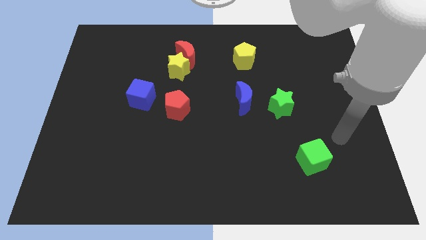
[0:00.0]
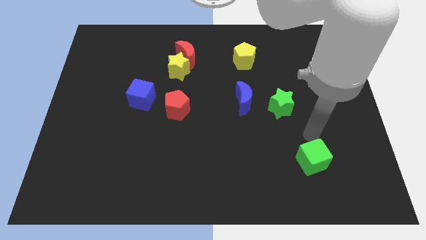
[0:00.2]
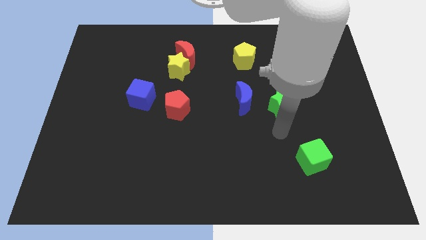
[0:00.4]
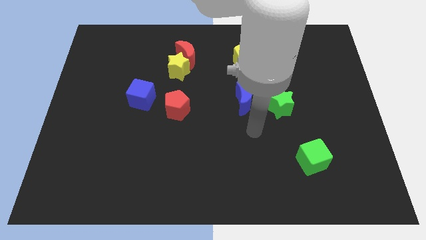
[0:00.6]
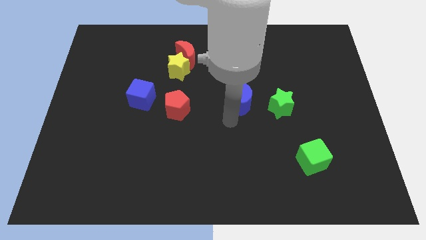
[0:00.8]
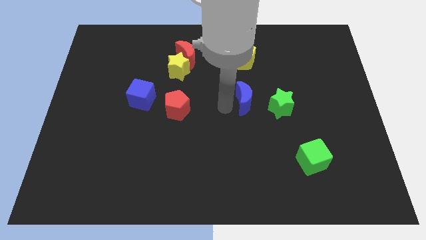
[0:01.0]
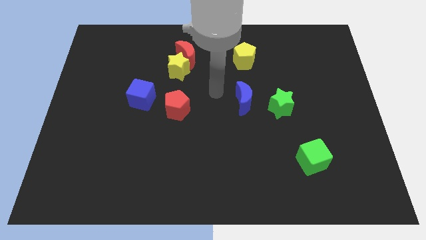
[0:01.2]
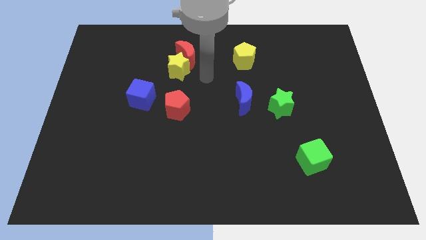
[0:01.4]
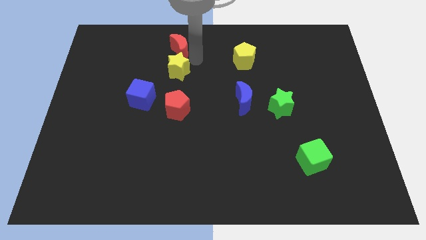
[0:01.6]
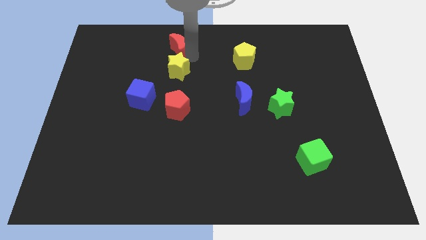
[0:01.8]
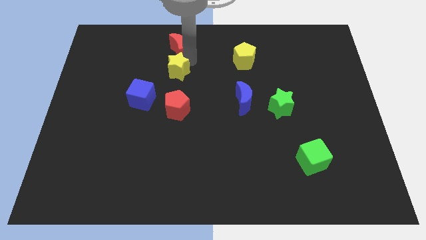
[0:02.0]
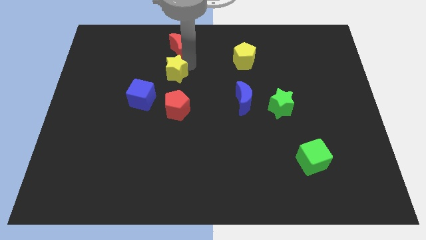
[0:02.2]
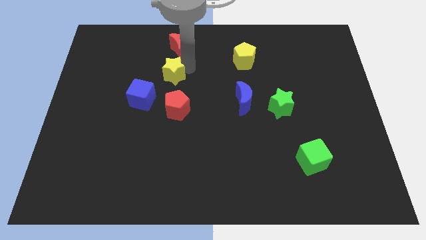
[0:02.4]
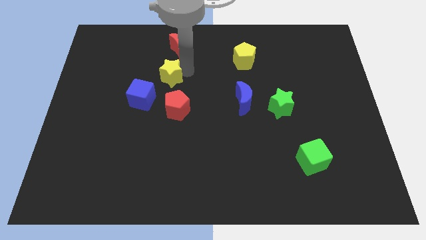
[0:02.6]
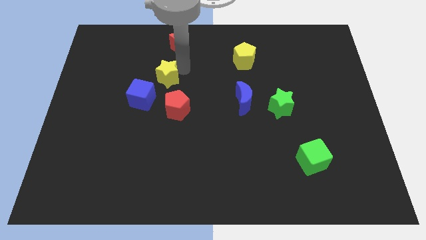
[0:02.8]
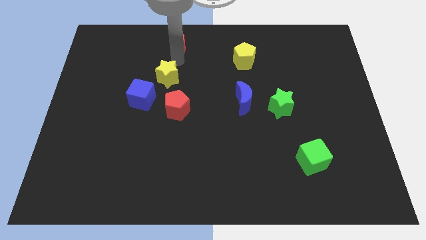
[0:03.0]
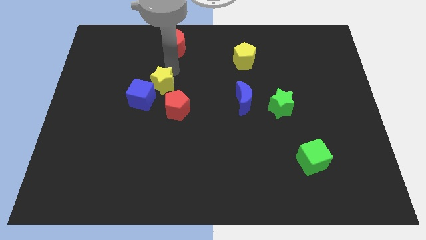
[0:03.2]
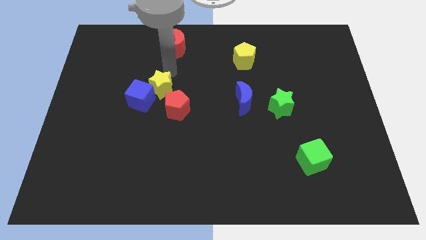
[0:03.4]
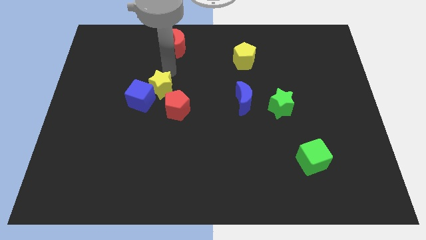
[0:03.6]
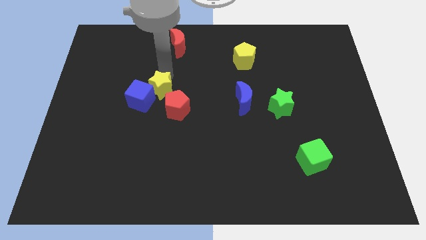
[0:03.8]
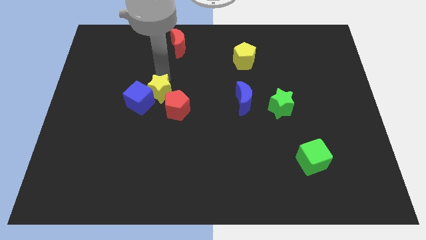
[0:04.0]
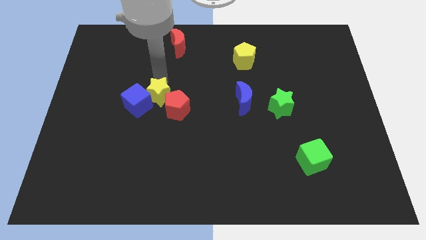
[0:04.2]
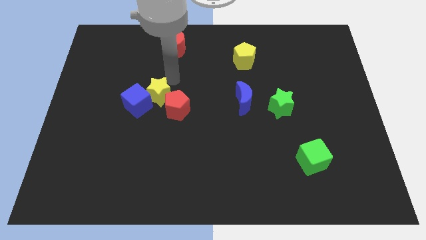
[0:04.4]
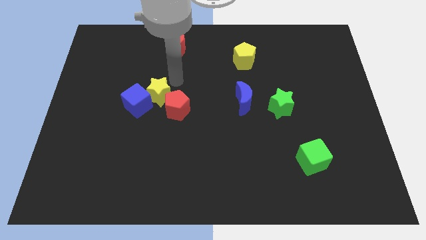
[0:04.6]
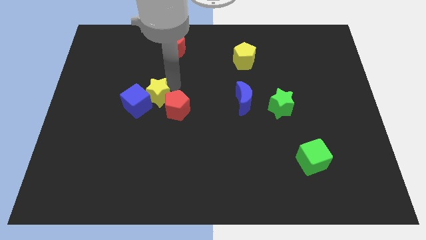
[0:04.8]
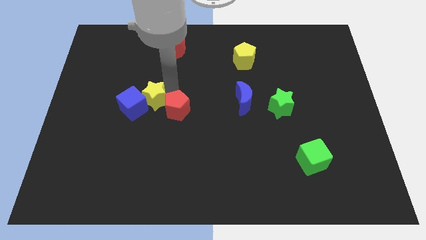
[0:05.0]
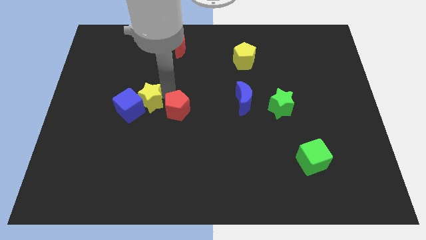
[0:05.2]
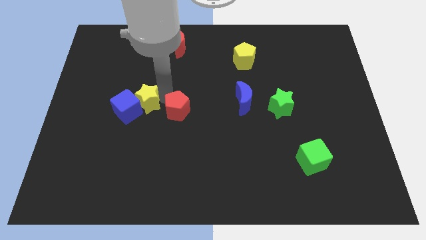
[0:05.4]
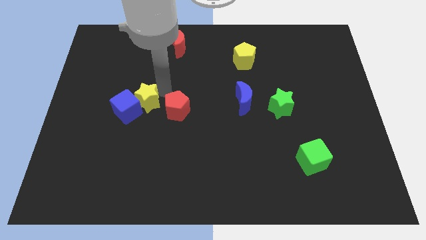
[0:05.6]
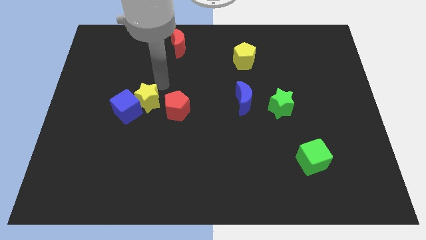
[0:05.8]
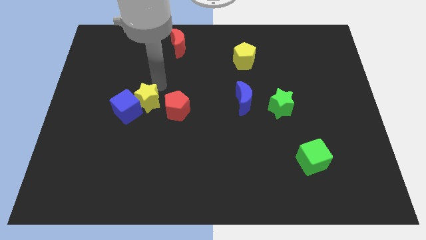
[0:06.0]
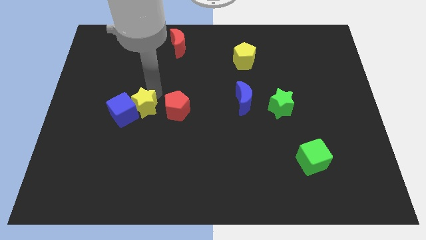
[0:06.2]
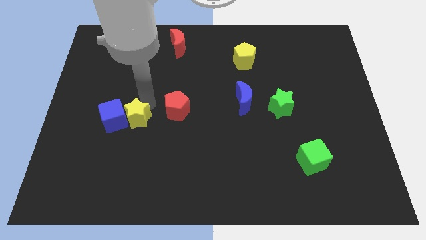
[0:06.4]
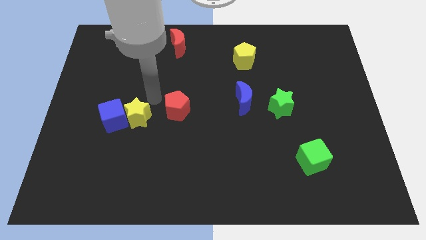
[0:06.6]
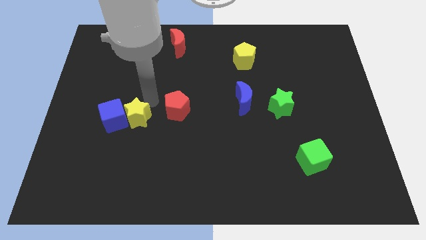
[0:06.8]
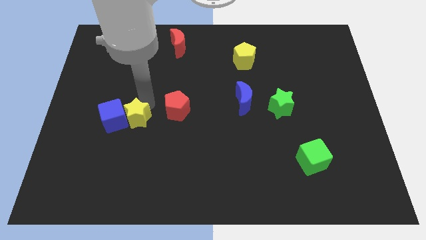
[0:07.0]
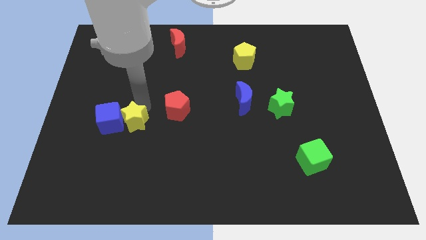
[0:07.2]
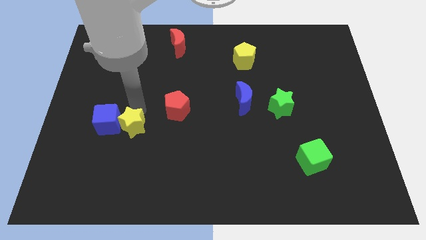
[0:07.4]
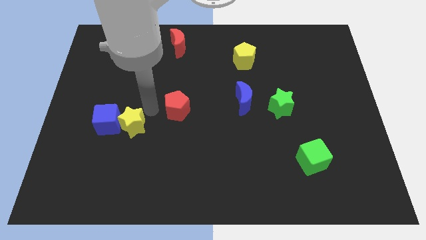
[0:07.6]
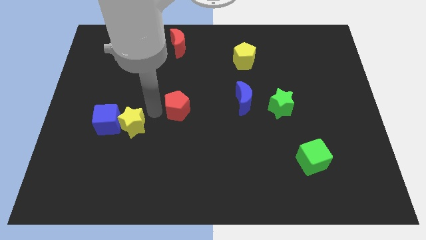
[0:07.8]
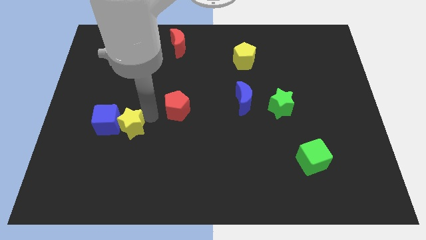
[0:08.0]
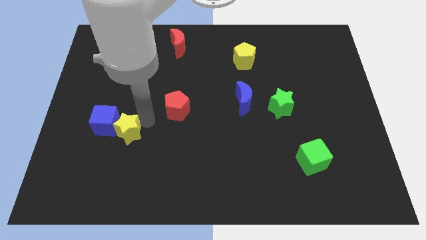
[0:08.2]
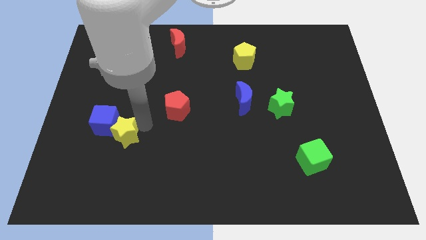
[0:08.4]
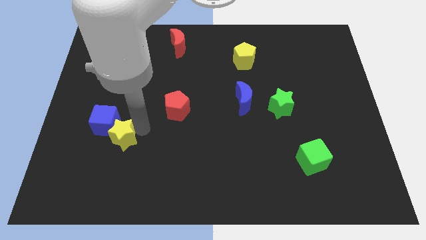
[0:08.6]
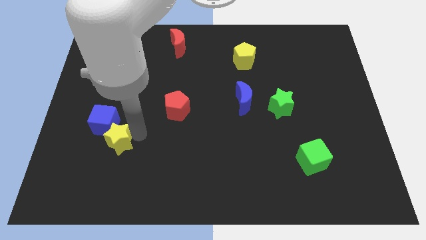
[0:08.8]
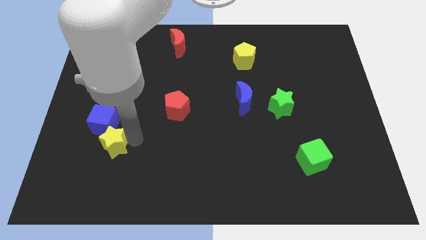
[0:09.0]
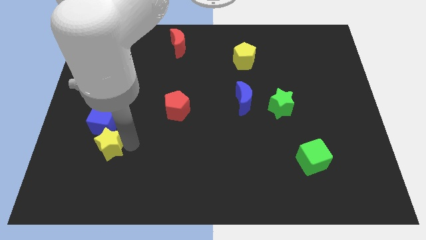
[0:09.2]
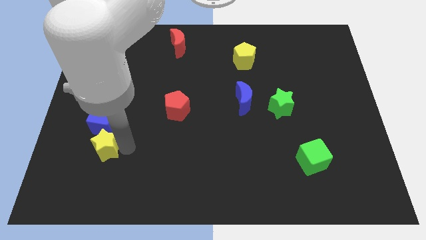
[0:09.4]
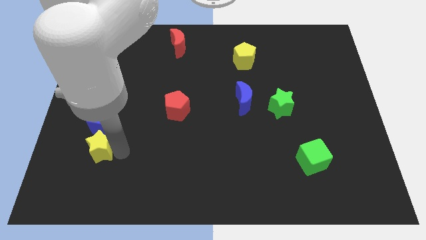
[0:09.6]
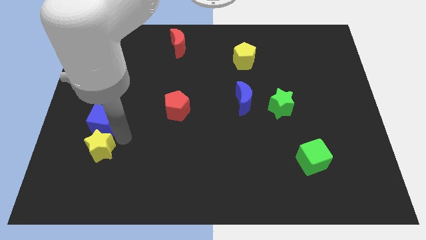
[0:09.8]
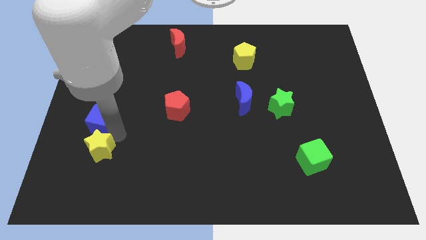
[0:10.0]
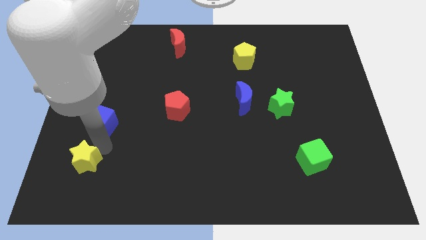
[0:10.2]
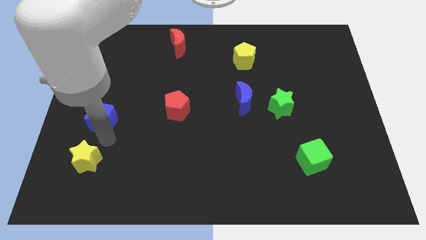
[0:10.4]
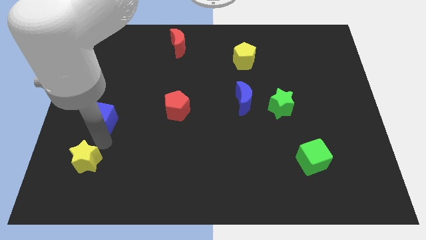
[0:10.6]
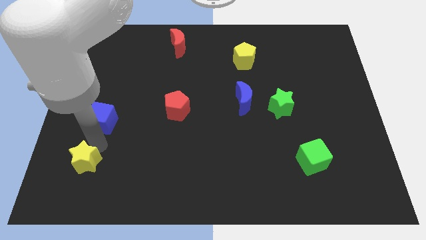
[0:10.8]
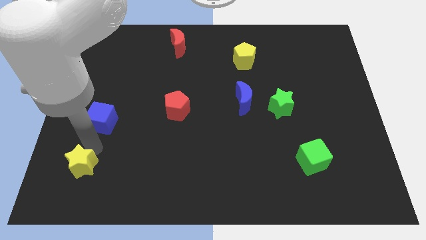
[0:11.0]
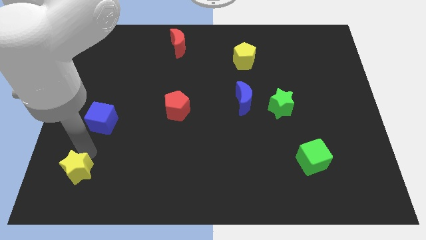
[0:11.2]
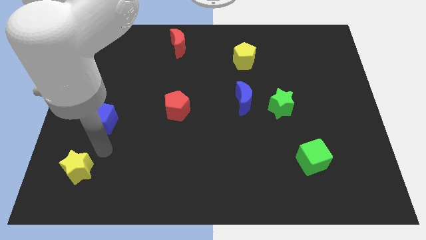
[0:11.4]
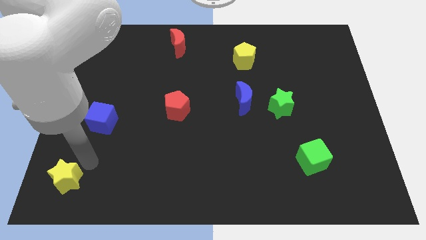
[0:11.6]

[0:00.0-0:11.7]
push the yellow star to the bottom left of the board

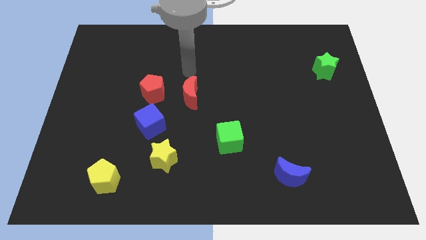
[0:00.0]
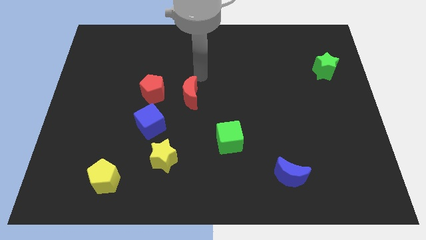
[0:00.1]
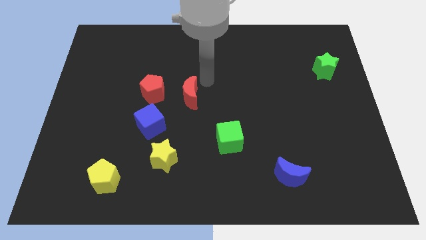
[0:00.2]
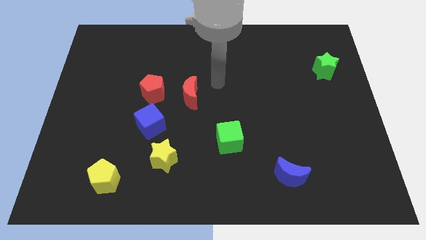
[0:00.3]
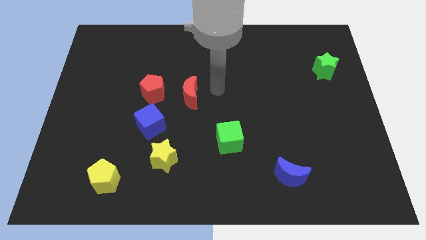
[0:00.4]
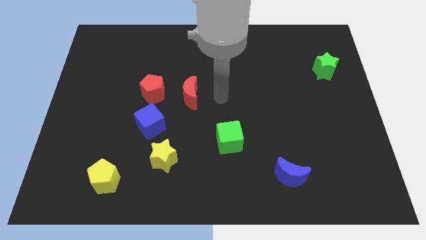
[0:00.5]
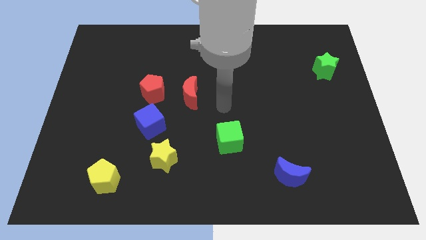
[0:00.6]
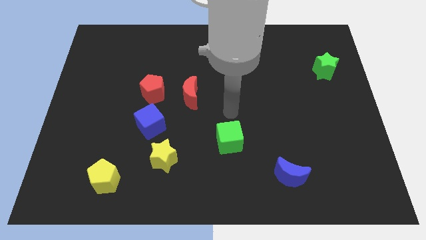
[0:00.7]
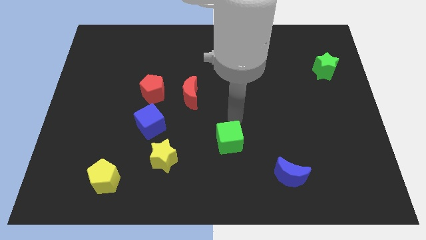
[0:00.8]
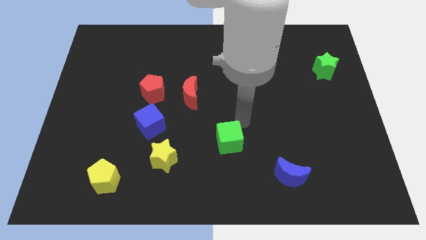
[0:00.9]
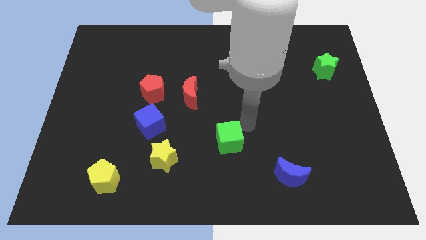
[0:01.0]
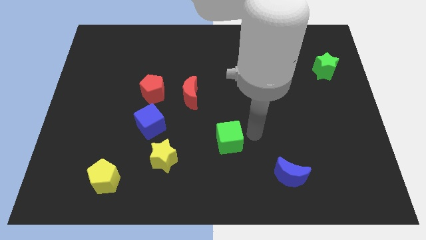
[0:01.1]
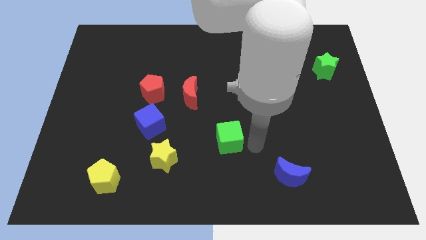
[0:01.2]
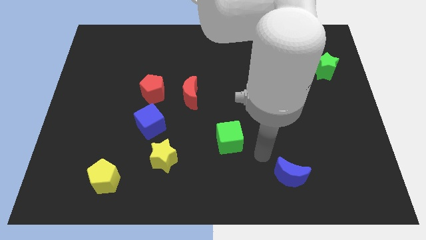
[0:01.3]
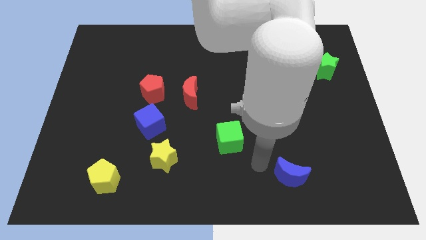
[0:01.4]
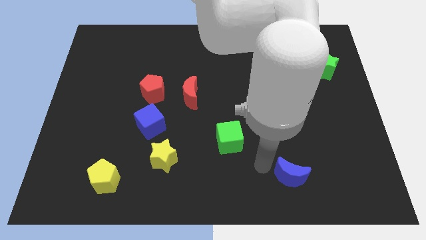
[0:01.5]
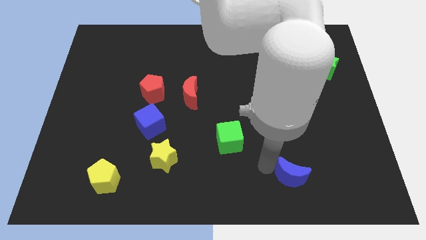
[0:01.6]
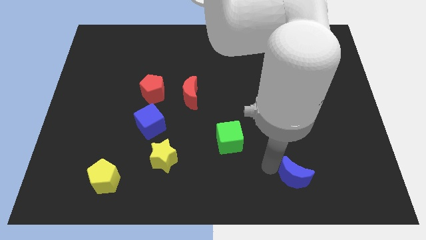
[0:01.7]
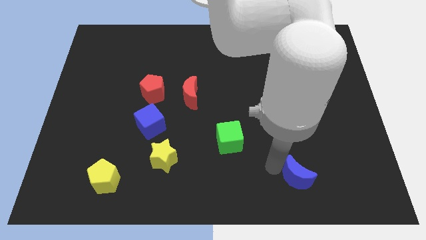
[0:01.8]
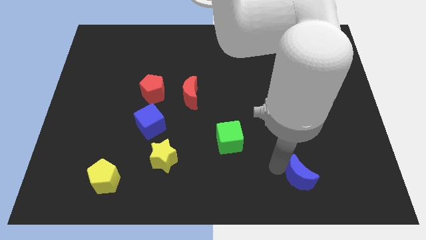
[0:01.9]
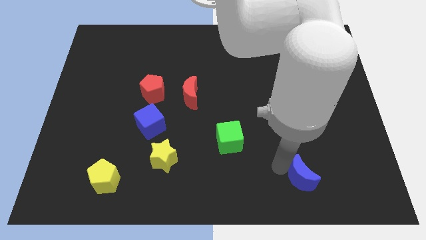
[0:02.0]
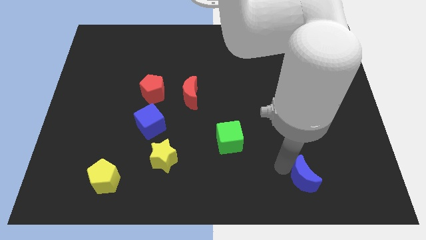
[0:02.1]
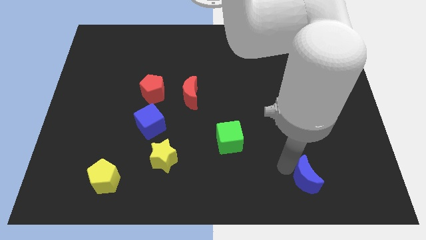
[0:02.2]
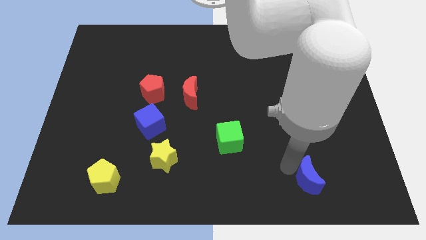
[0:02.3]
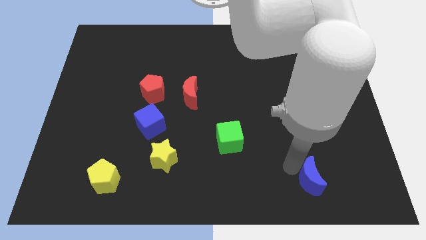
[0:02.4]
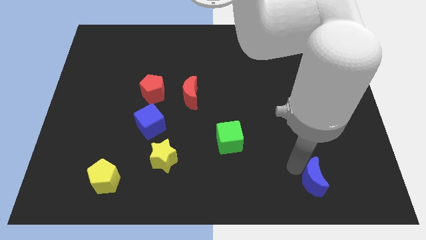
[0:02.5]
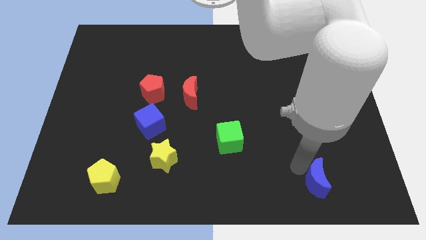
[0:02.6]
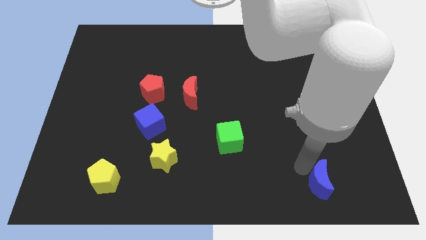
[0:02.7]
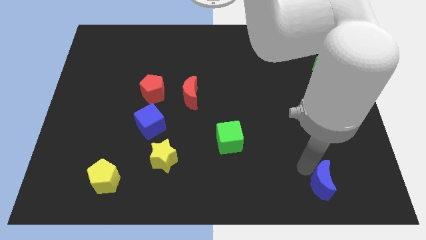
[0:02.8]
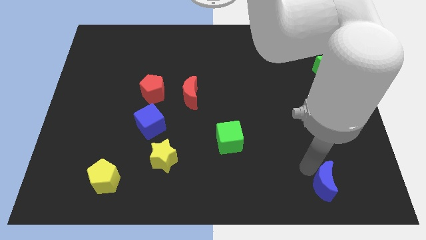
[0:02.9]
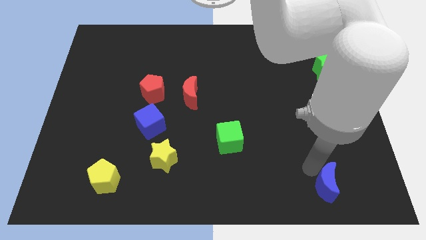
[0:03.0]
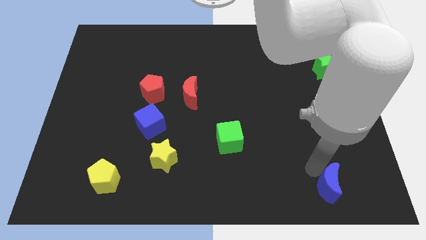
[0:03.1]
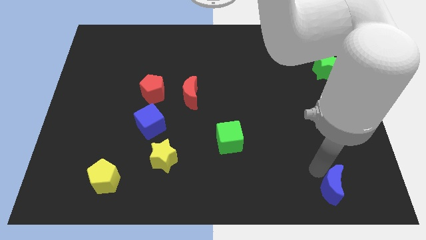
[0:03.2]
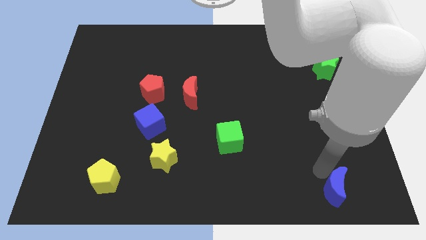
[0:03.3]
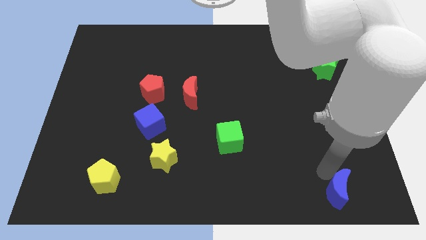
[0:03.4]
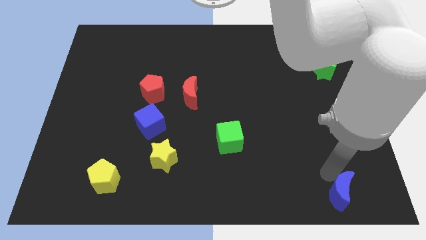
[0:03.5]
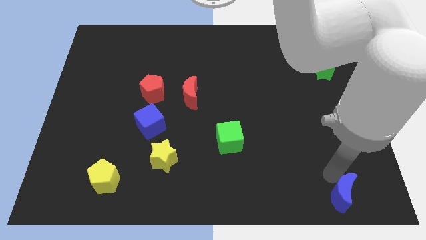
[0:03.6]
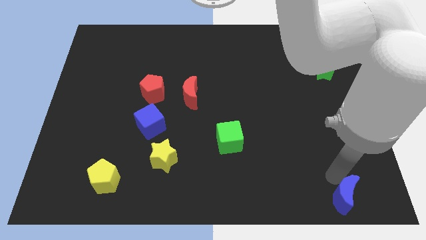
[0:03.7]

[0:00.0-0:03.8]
move the blue moon to the lower right corner
